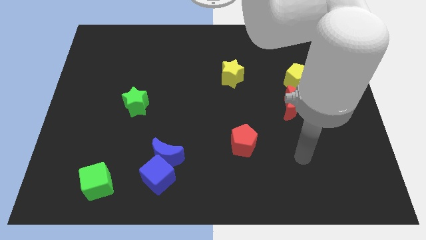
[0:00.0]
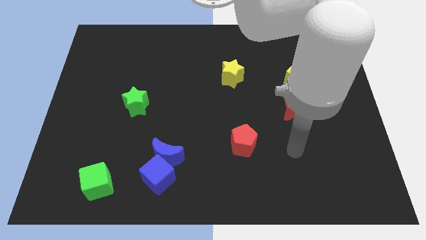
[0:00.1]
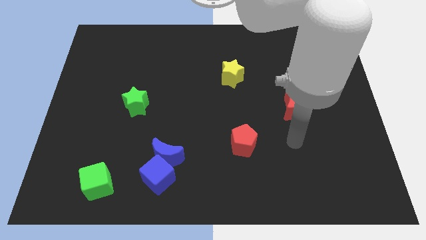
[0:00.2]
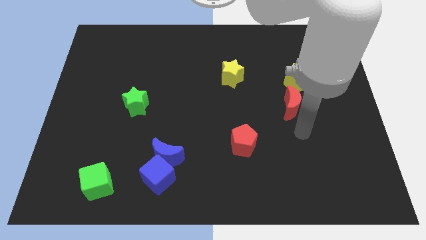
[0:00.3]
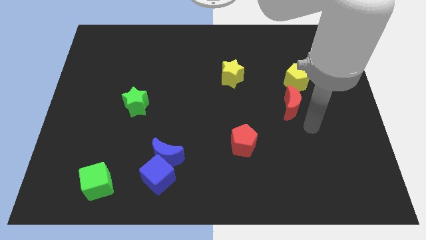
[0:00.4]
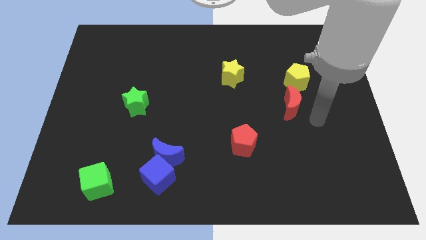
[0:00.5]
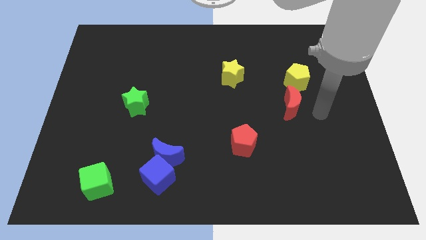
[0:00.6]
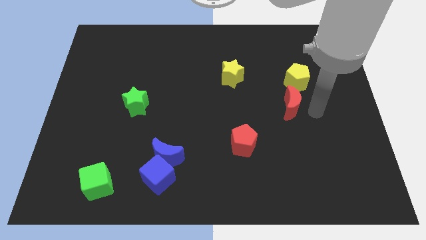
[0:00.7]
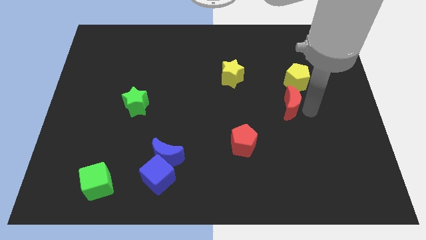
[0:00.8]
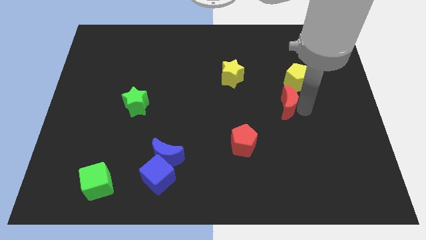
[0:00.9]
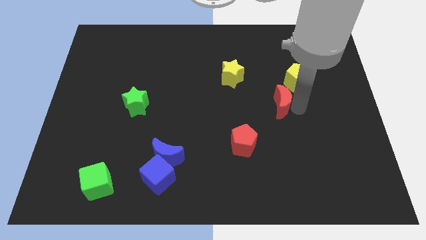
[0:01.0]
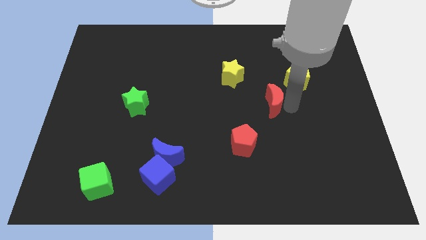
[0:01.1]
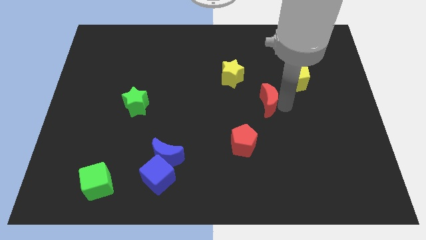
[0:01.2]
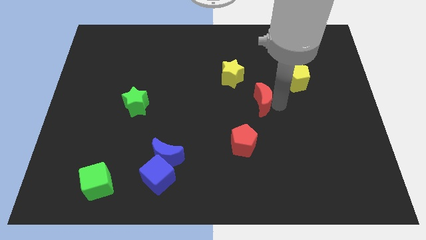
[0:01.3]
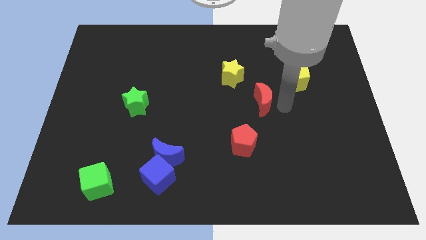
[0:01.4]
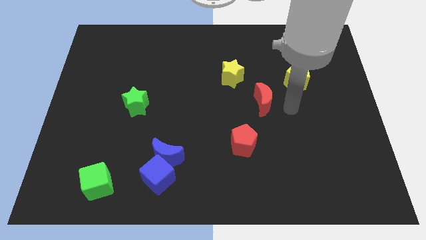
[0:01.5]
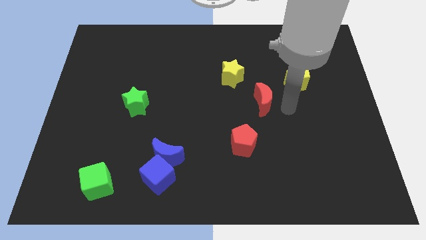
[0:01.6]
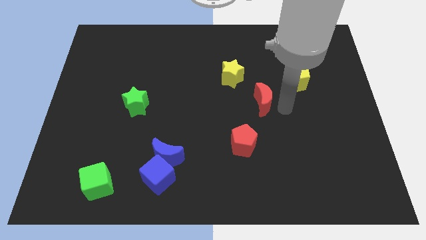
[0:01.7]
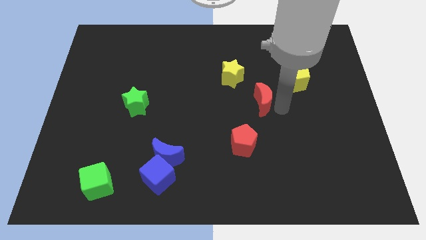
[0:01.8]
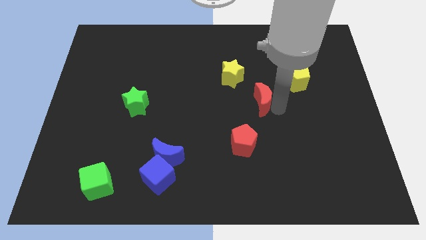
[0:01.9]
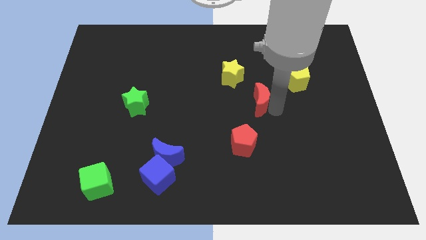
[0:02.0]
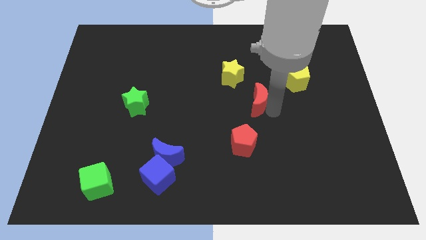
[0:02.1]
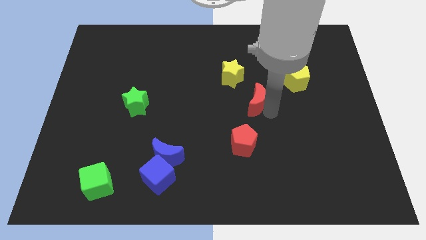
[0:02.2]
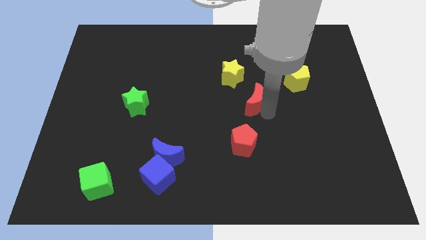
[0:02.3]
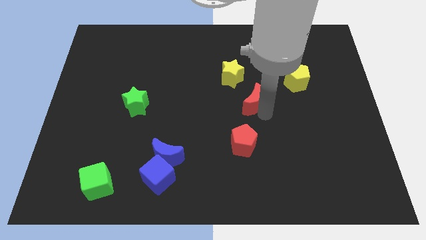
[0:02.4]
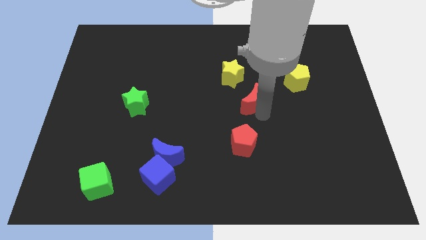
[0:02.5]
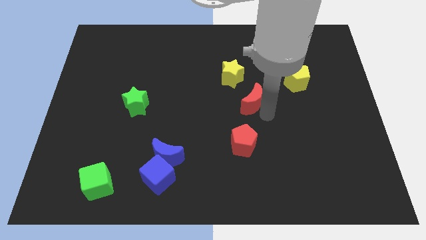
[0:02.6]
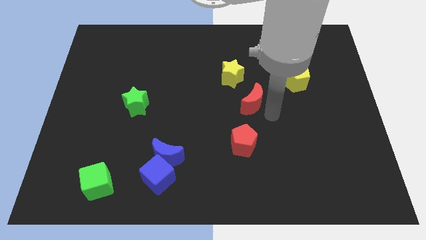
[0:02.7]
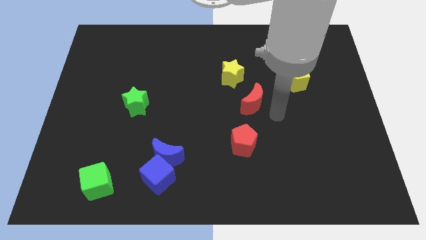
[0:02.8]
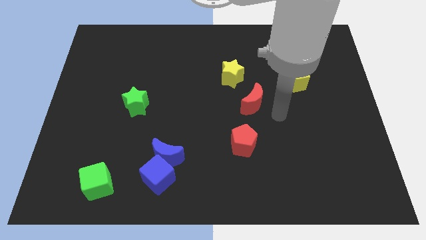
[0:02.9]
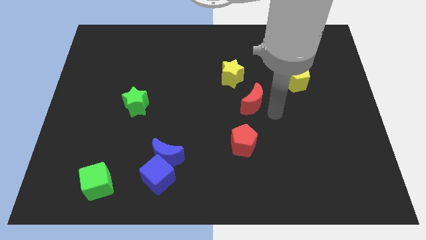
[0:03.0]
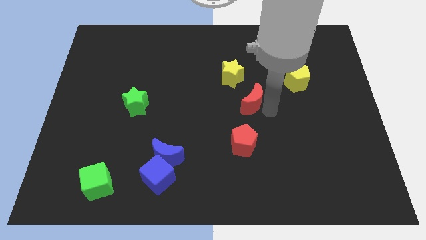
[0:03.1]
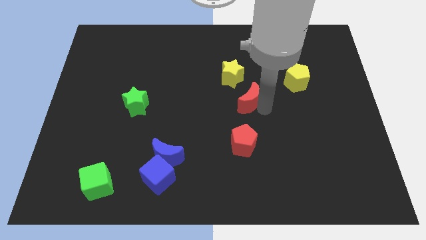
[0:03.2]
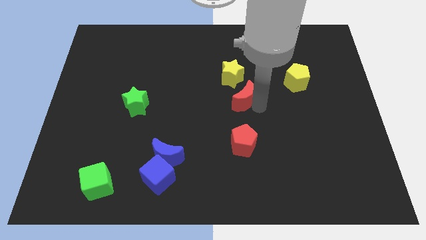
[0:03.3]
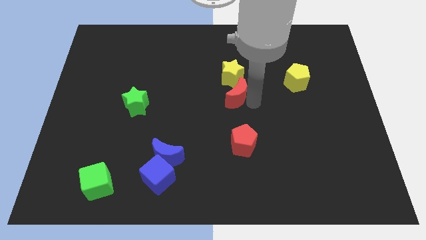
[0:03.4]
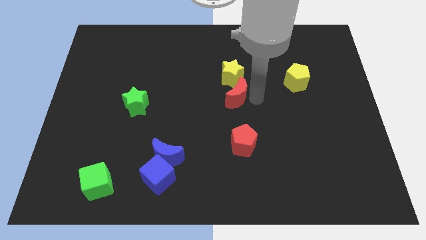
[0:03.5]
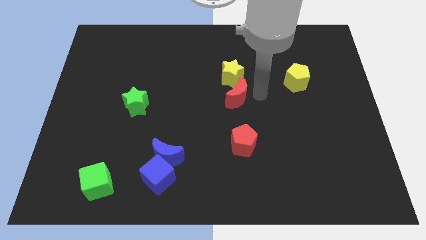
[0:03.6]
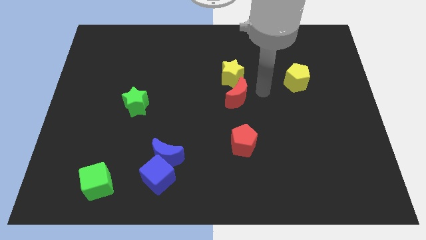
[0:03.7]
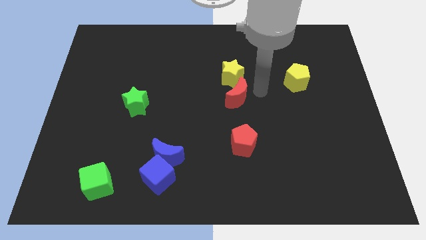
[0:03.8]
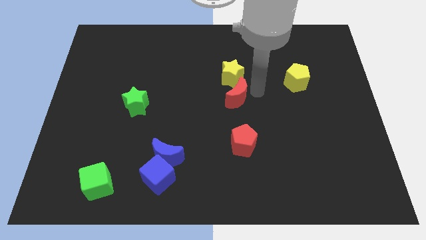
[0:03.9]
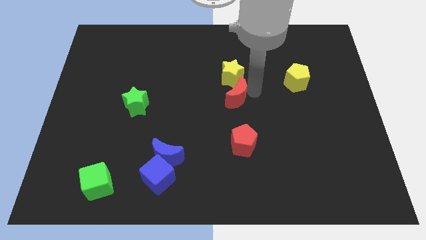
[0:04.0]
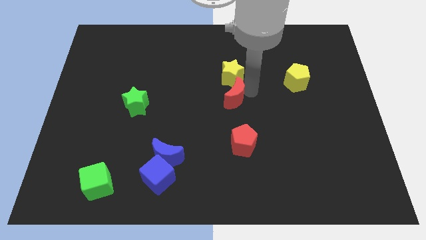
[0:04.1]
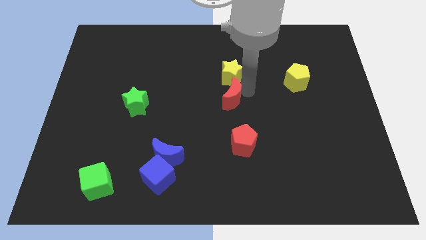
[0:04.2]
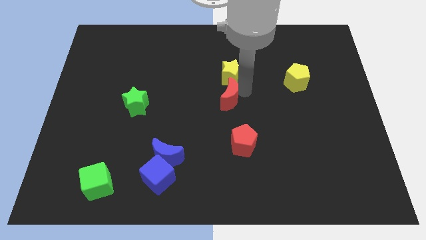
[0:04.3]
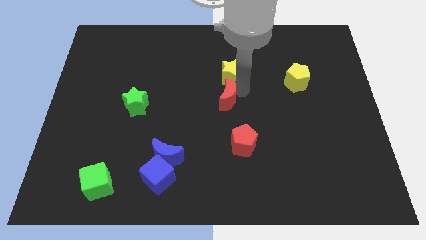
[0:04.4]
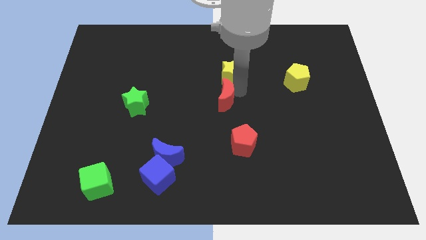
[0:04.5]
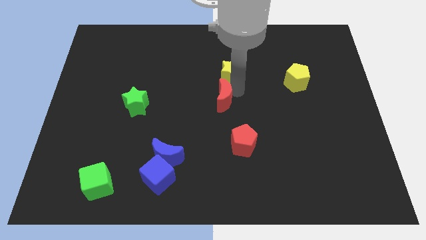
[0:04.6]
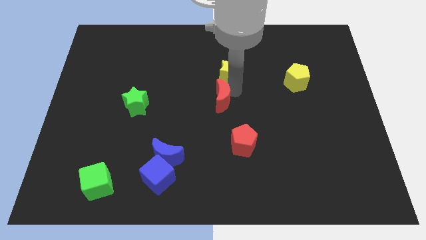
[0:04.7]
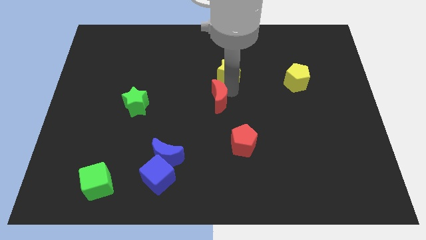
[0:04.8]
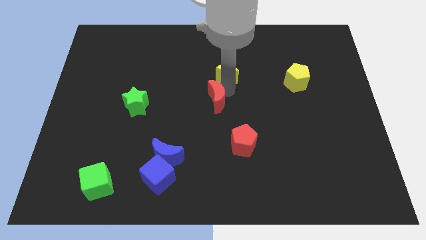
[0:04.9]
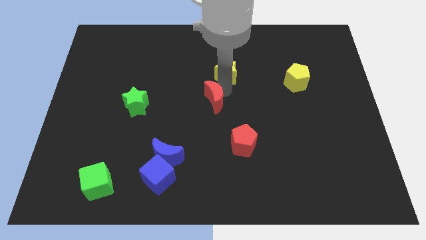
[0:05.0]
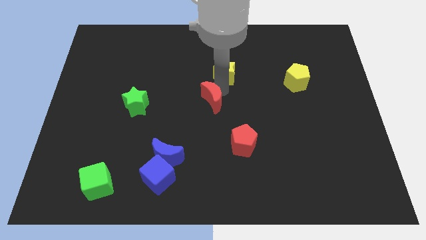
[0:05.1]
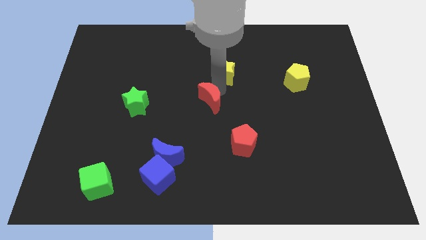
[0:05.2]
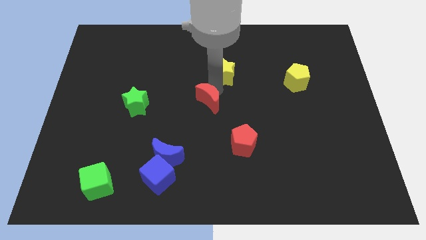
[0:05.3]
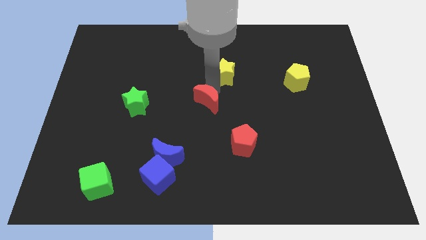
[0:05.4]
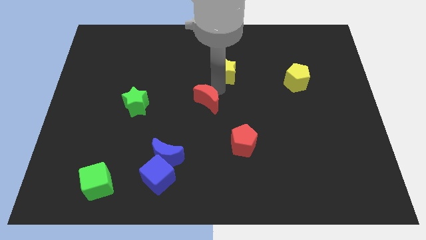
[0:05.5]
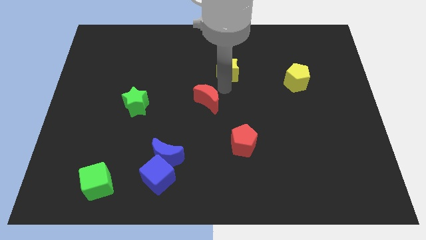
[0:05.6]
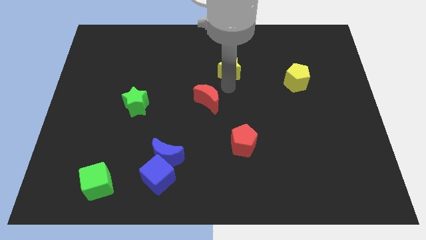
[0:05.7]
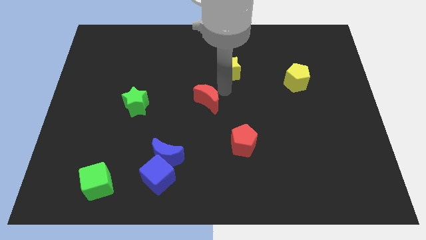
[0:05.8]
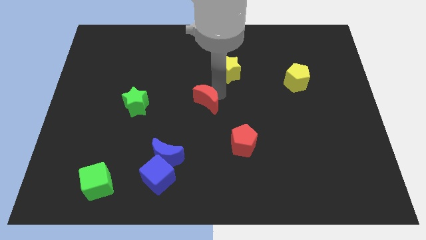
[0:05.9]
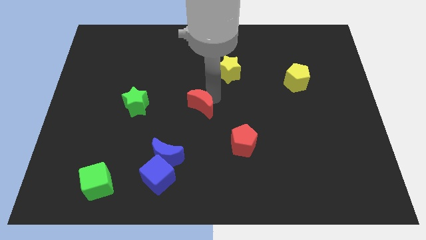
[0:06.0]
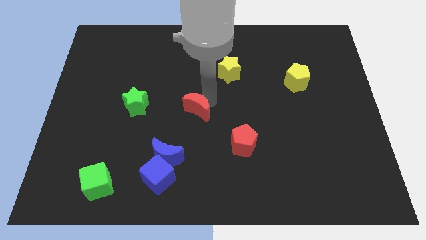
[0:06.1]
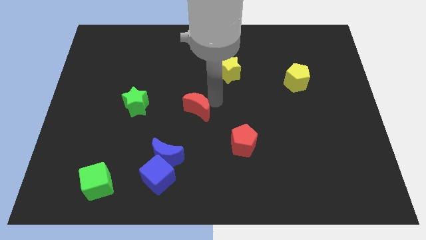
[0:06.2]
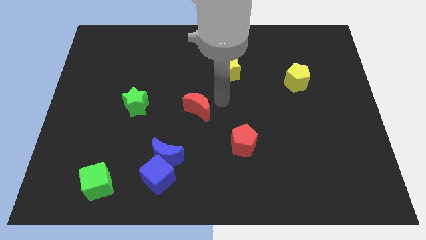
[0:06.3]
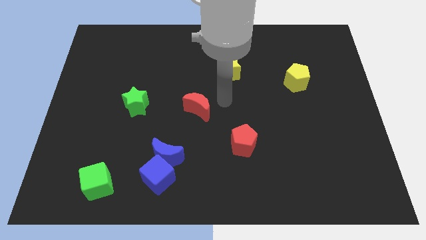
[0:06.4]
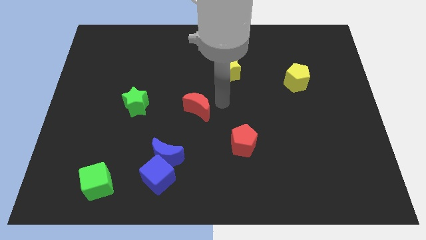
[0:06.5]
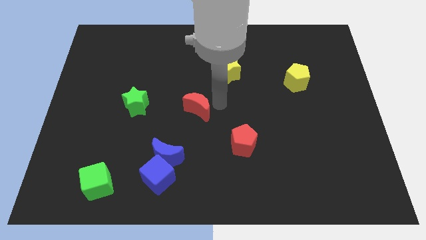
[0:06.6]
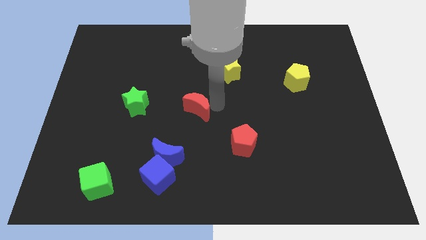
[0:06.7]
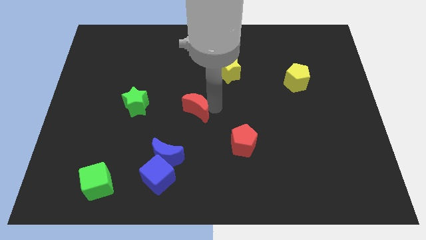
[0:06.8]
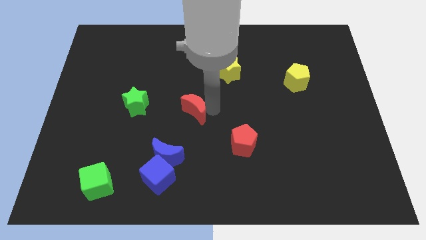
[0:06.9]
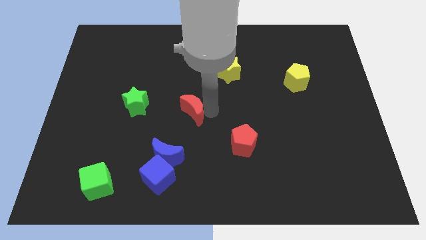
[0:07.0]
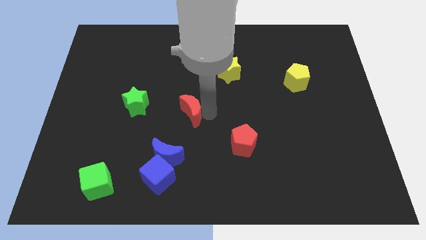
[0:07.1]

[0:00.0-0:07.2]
slide the red moon to the top side of the blue moon
